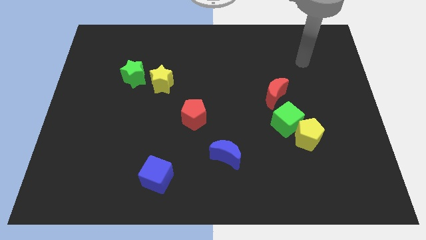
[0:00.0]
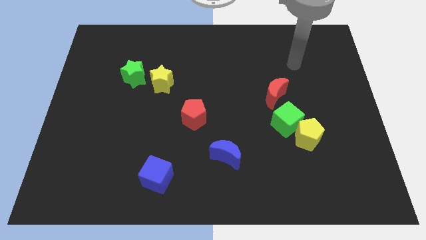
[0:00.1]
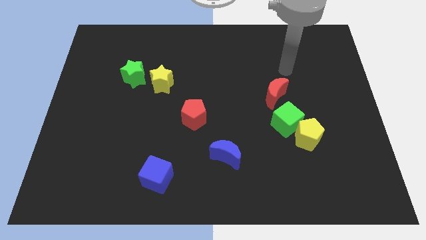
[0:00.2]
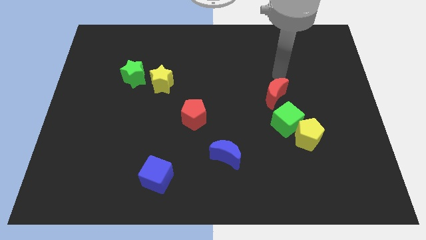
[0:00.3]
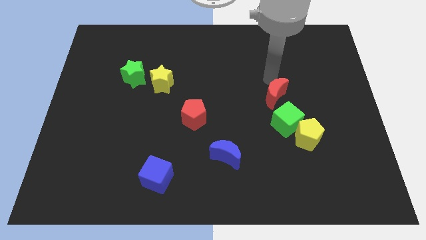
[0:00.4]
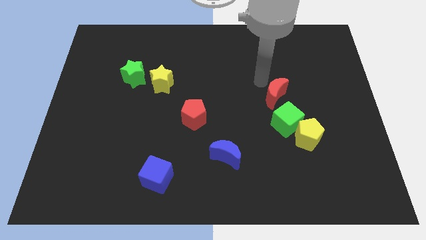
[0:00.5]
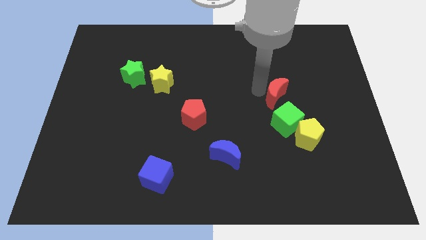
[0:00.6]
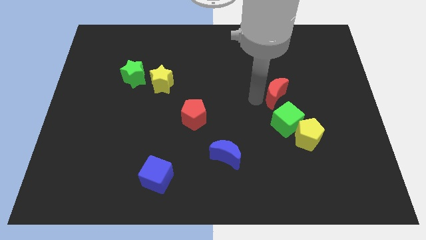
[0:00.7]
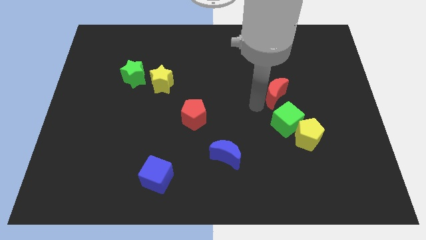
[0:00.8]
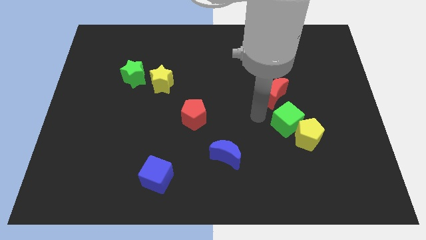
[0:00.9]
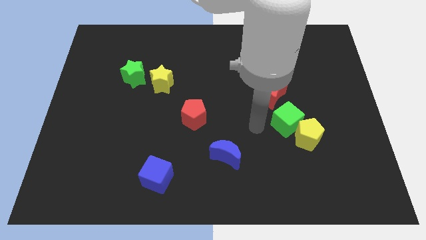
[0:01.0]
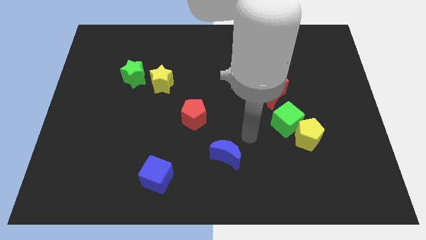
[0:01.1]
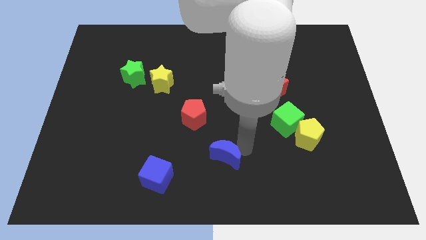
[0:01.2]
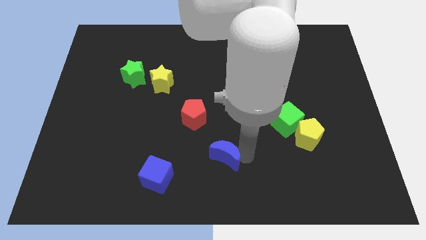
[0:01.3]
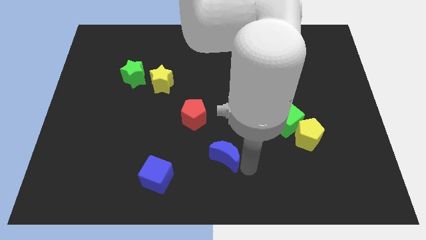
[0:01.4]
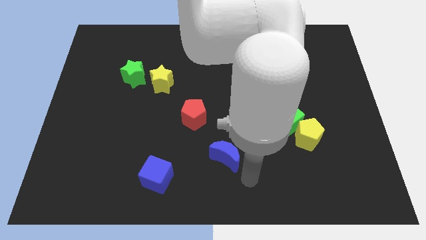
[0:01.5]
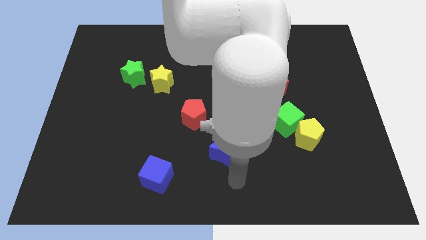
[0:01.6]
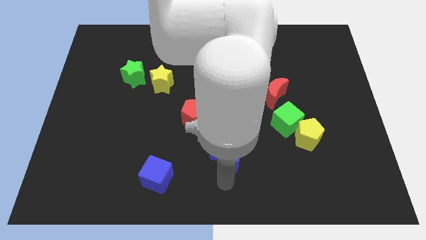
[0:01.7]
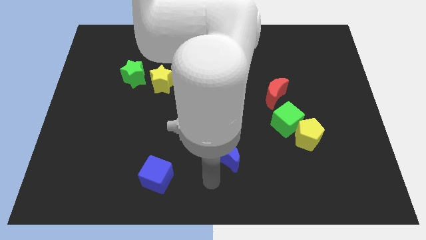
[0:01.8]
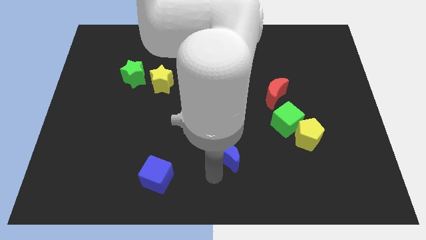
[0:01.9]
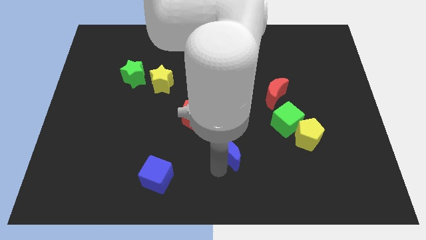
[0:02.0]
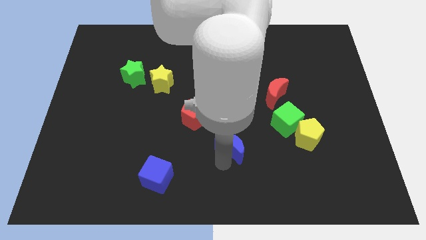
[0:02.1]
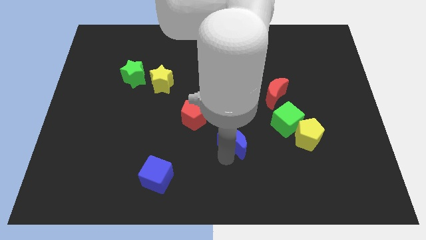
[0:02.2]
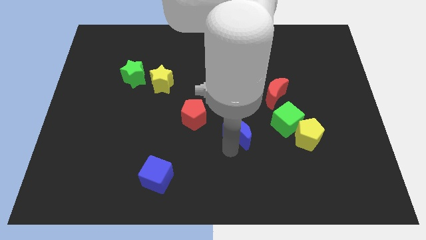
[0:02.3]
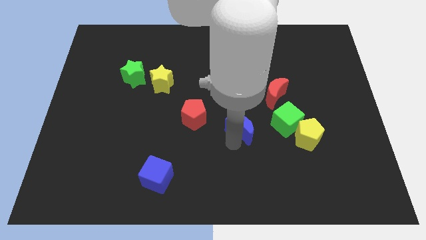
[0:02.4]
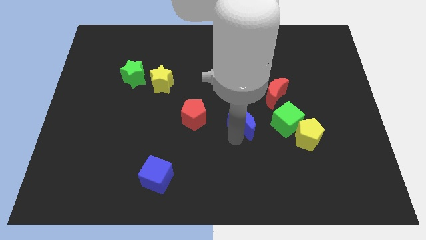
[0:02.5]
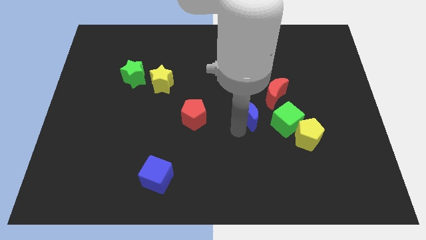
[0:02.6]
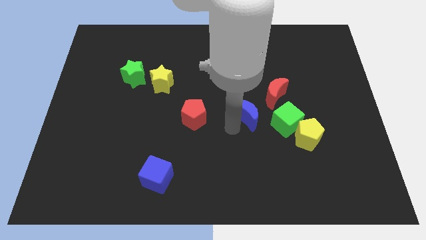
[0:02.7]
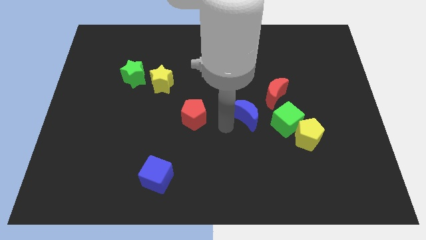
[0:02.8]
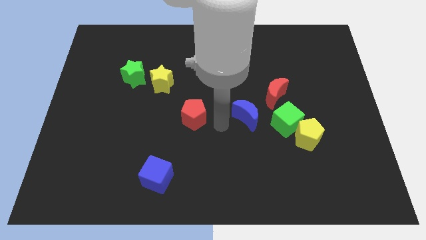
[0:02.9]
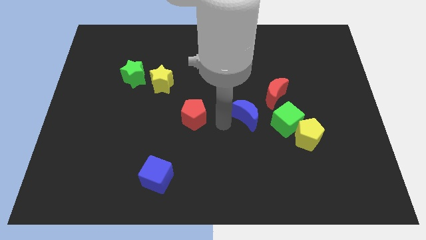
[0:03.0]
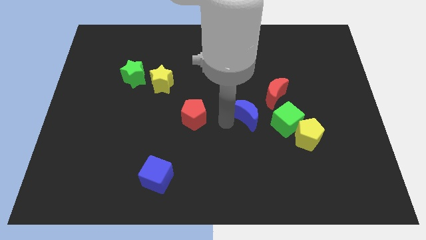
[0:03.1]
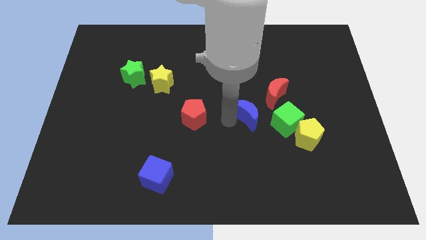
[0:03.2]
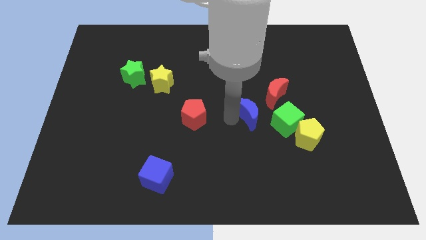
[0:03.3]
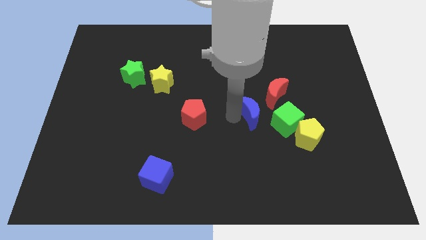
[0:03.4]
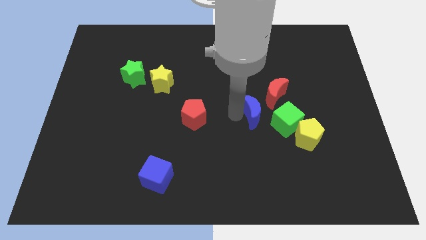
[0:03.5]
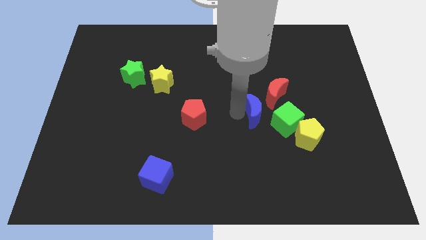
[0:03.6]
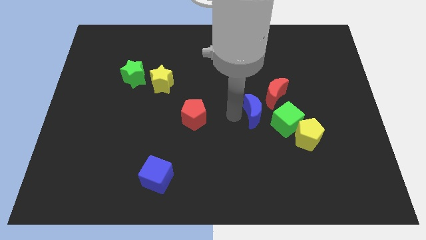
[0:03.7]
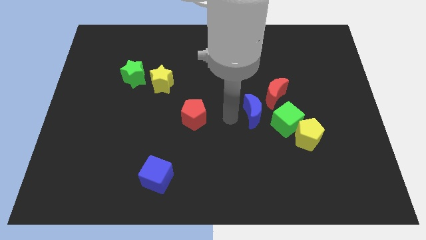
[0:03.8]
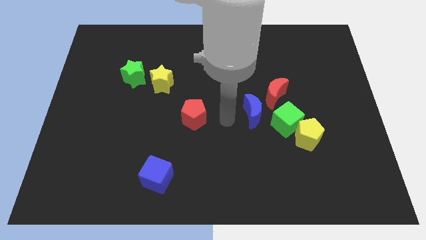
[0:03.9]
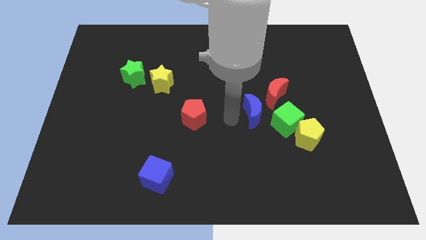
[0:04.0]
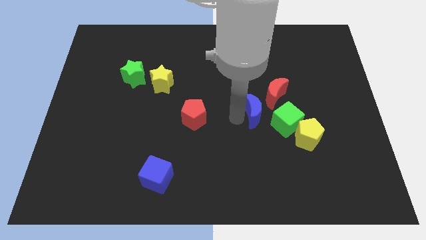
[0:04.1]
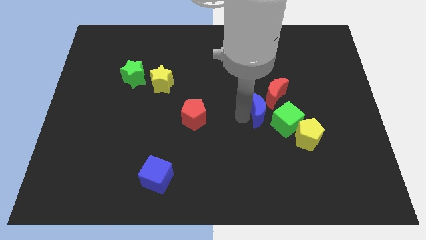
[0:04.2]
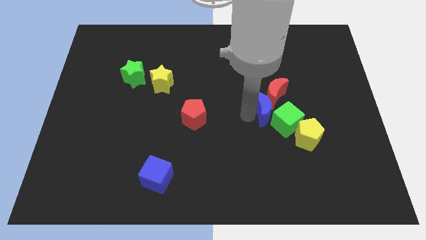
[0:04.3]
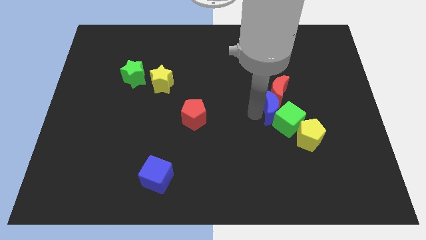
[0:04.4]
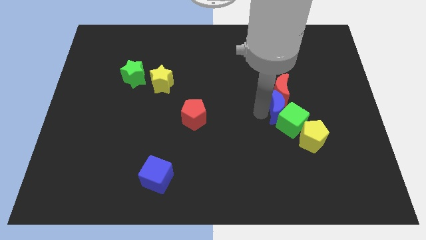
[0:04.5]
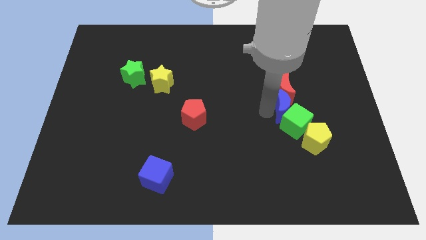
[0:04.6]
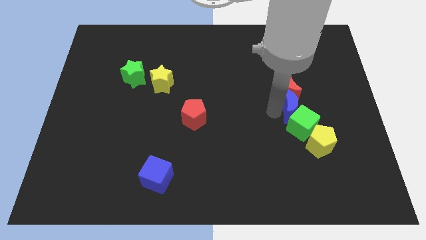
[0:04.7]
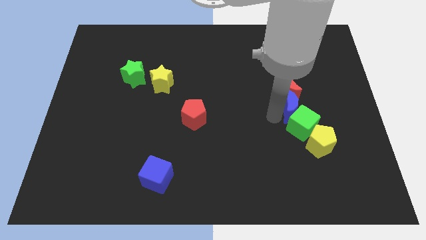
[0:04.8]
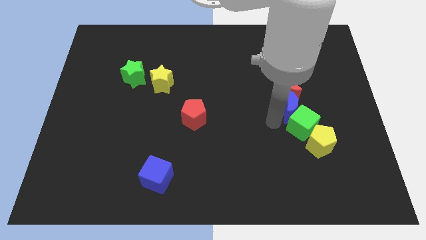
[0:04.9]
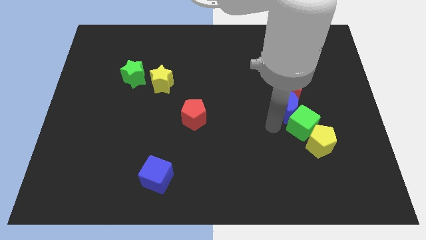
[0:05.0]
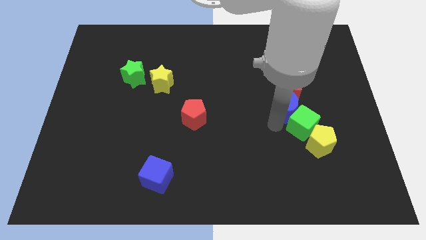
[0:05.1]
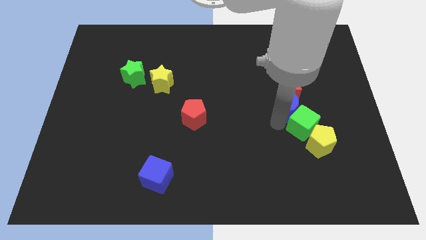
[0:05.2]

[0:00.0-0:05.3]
slide the blue moon upwards and then to the right

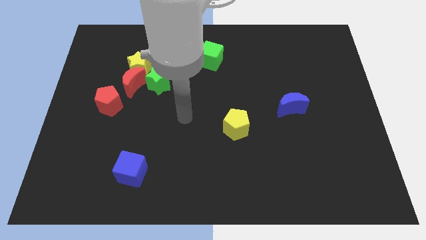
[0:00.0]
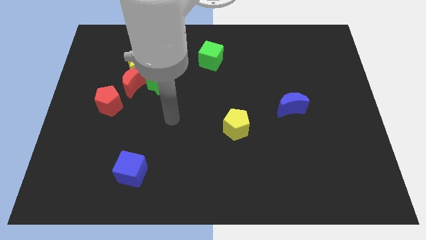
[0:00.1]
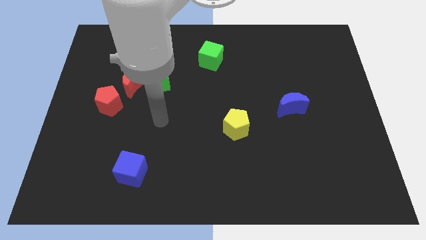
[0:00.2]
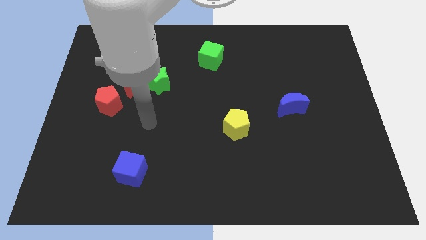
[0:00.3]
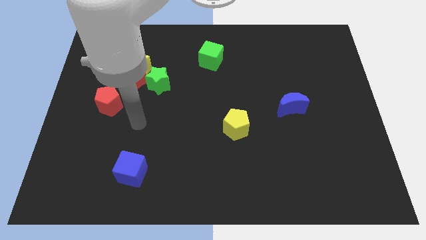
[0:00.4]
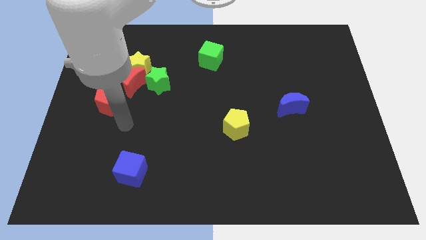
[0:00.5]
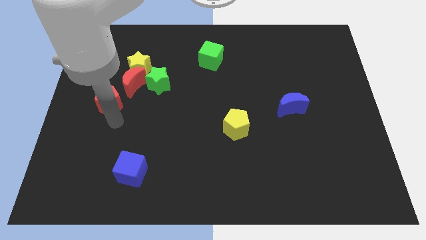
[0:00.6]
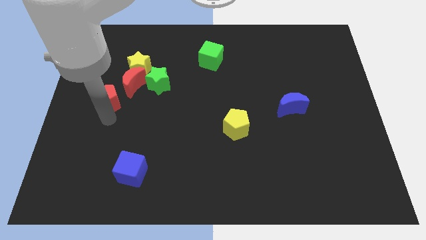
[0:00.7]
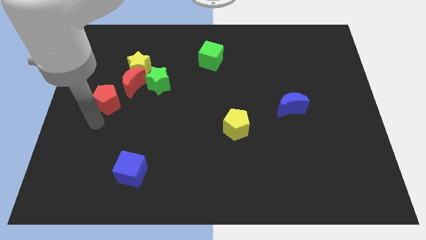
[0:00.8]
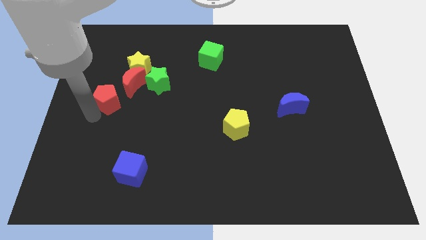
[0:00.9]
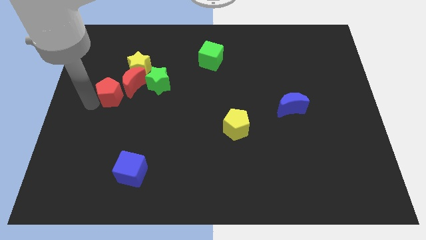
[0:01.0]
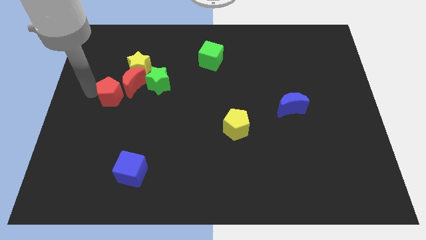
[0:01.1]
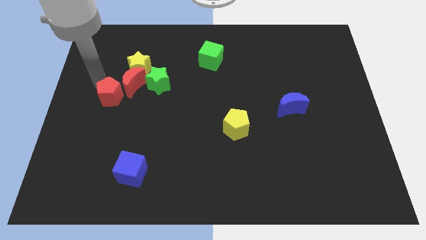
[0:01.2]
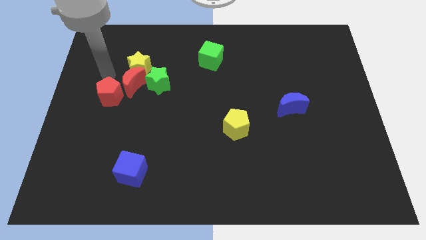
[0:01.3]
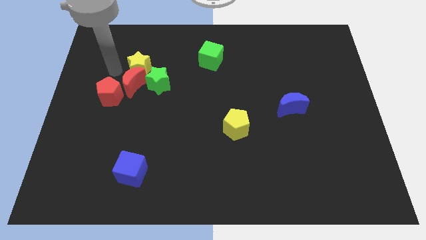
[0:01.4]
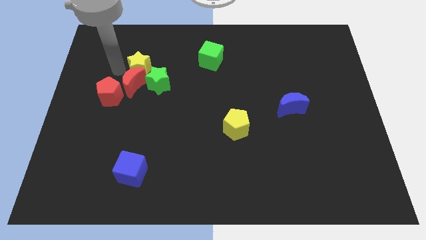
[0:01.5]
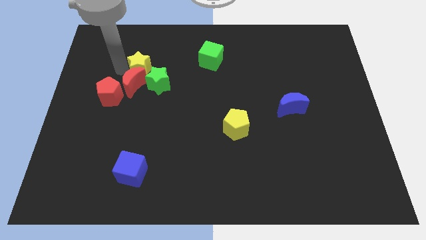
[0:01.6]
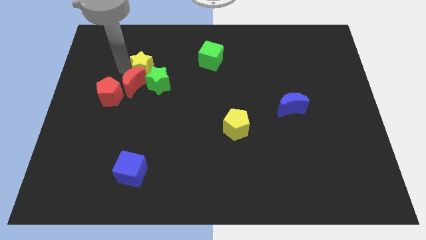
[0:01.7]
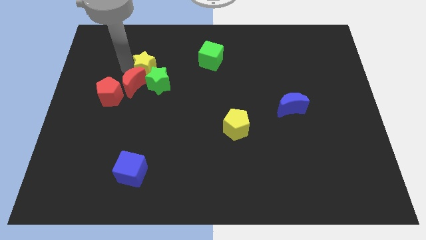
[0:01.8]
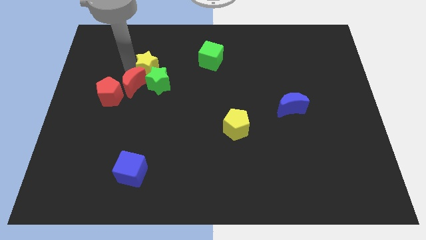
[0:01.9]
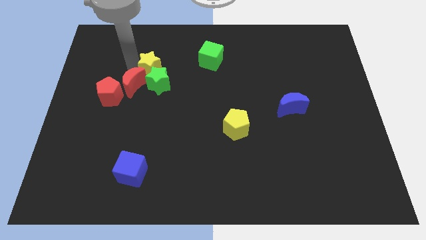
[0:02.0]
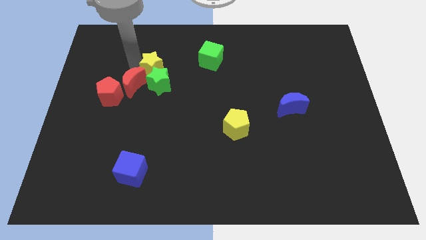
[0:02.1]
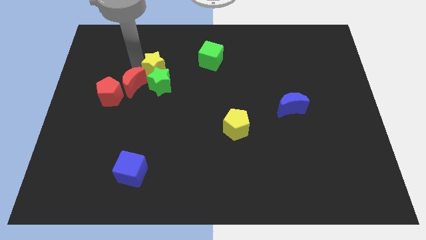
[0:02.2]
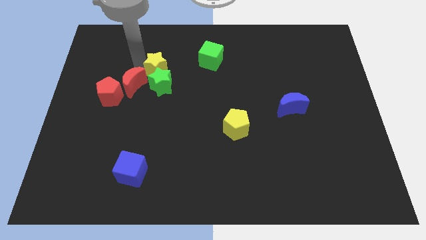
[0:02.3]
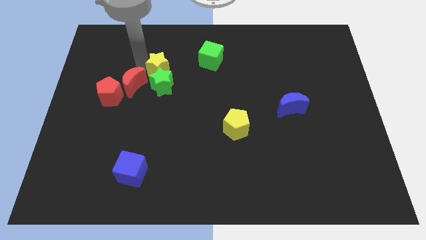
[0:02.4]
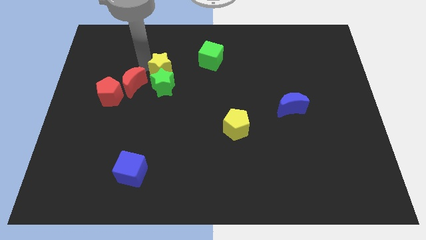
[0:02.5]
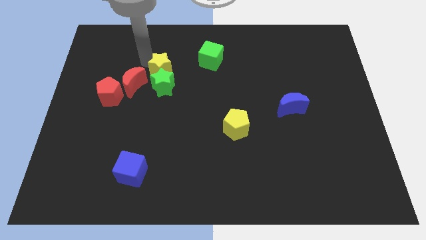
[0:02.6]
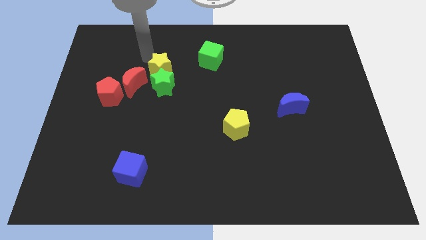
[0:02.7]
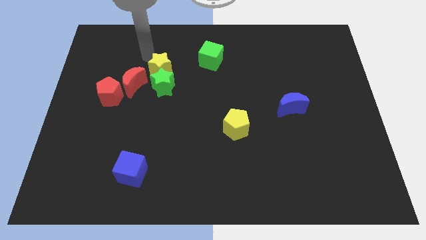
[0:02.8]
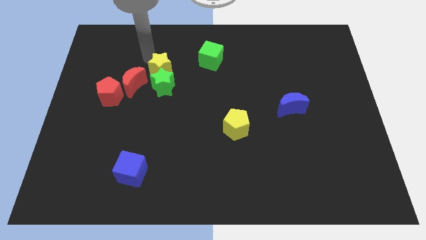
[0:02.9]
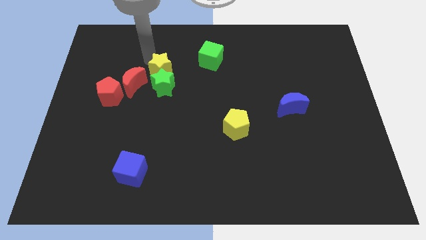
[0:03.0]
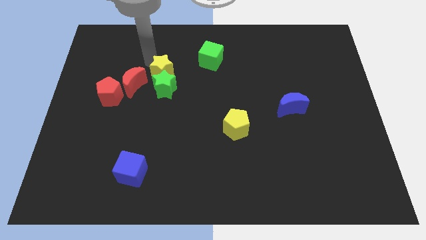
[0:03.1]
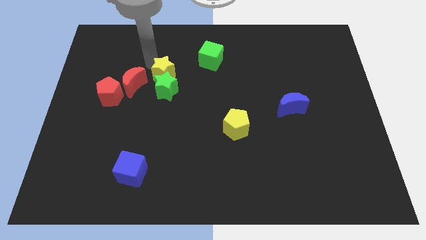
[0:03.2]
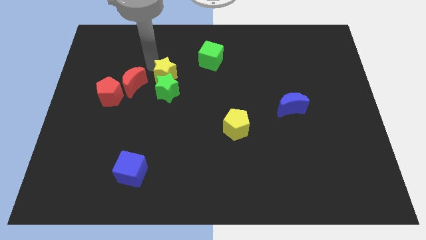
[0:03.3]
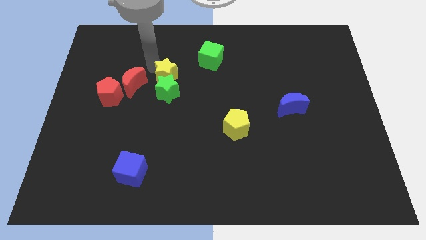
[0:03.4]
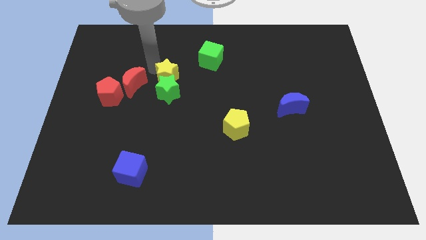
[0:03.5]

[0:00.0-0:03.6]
move the yellow star a little bit downwards and to the right
